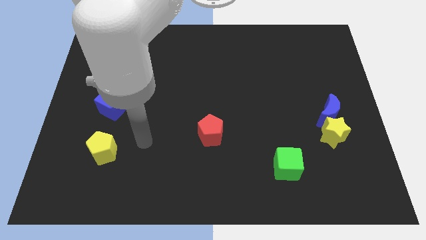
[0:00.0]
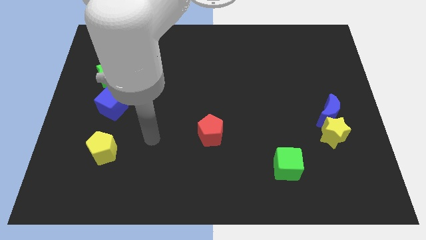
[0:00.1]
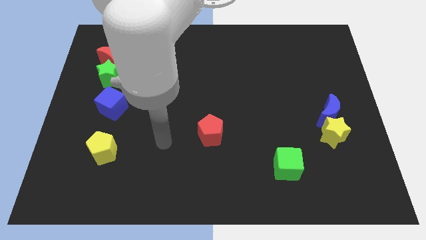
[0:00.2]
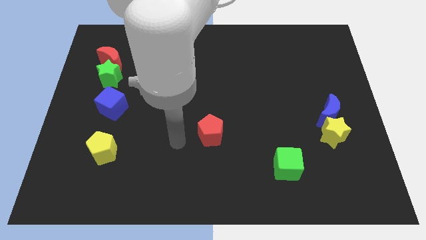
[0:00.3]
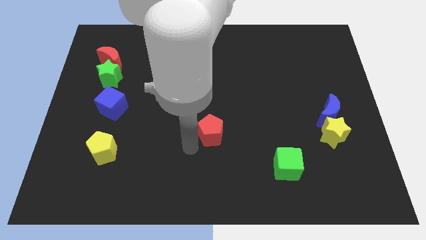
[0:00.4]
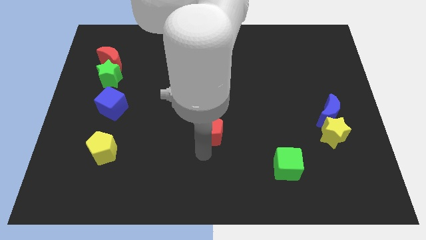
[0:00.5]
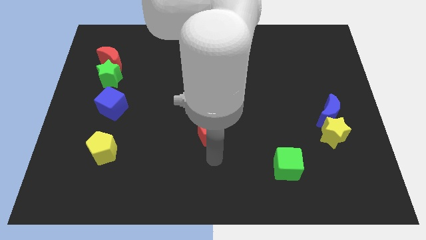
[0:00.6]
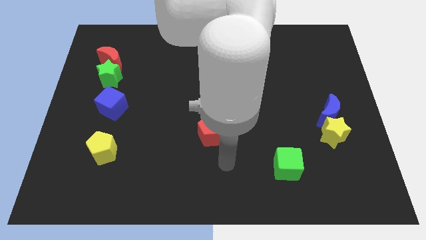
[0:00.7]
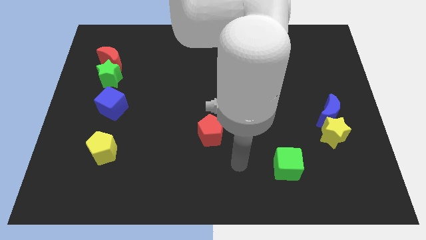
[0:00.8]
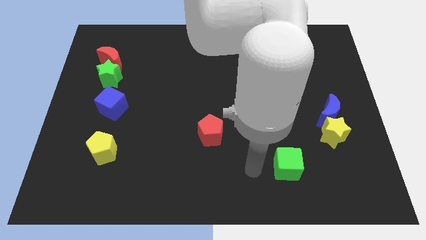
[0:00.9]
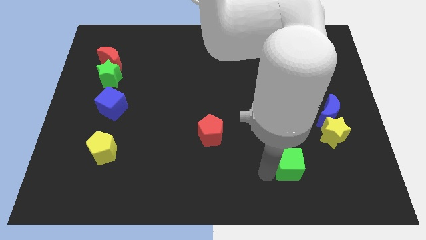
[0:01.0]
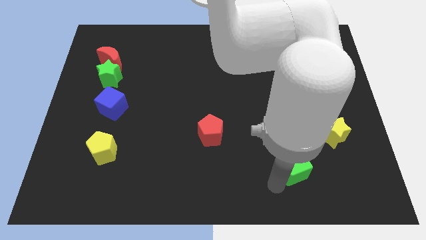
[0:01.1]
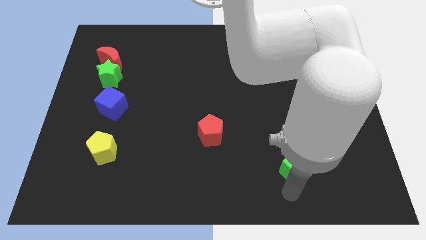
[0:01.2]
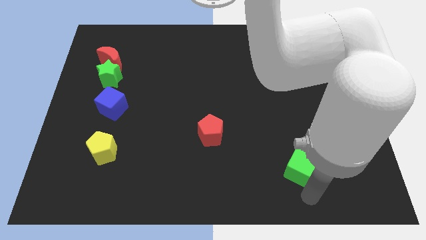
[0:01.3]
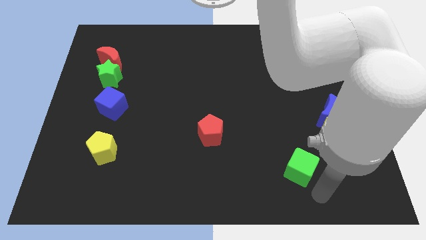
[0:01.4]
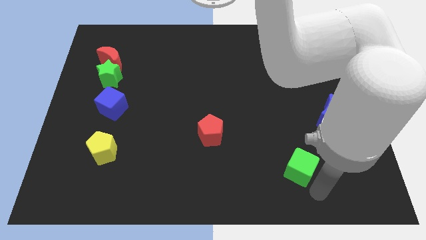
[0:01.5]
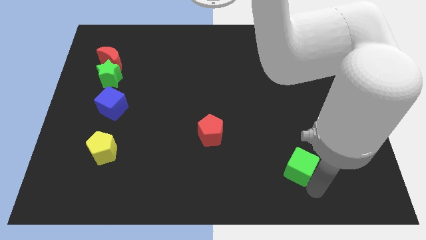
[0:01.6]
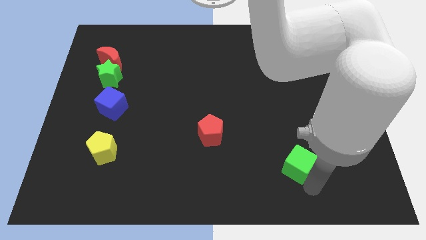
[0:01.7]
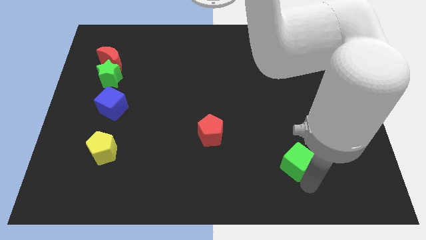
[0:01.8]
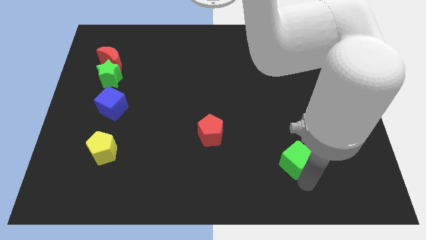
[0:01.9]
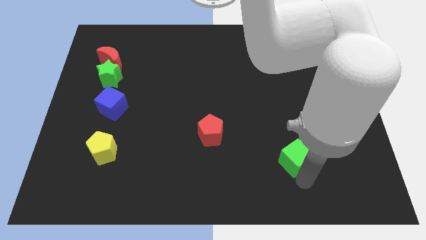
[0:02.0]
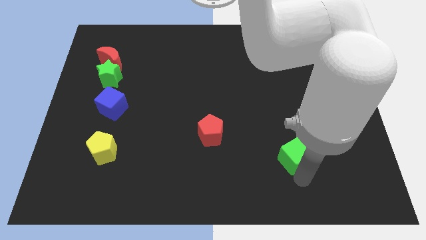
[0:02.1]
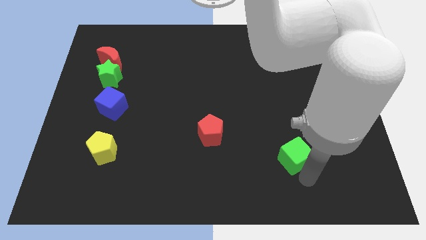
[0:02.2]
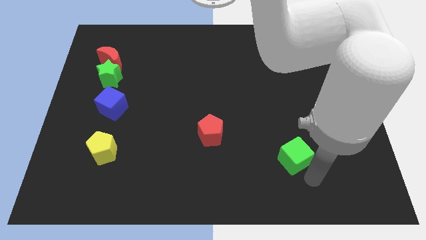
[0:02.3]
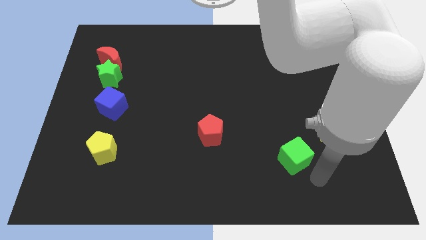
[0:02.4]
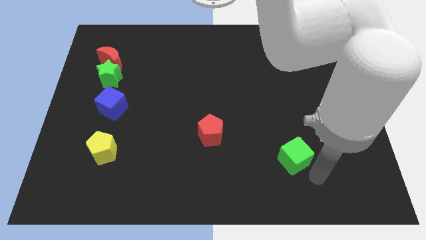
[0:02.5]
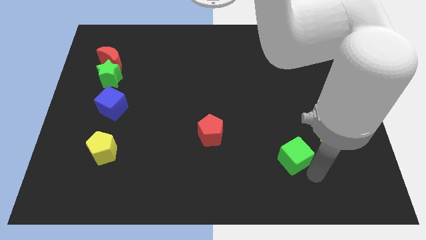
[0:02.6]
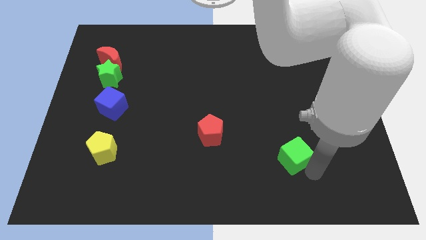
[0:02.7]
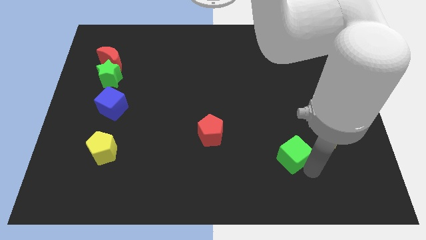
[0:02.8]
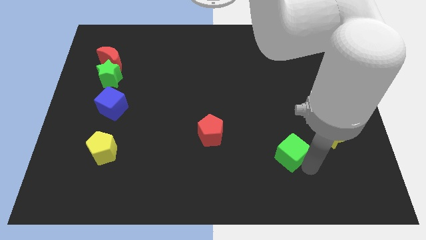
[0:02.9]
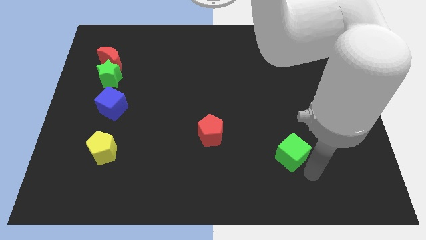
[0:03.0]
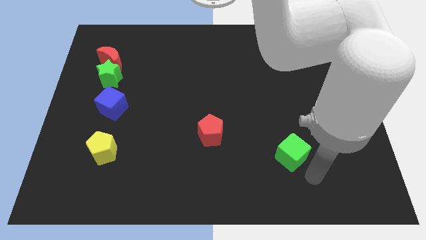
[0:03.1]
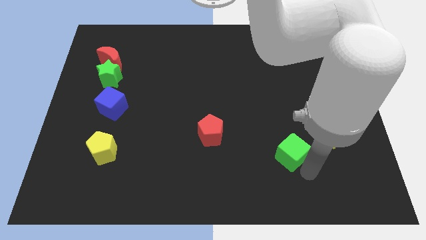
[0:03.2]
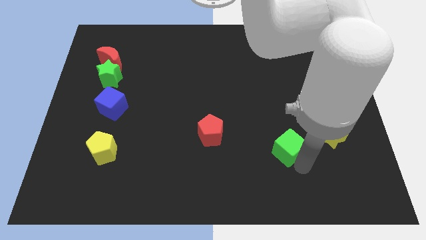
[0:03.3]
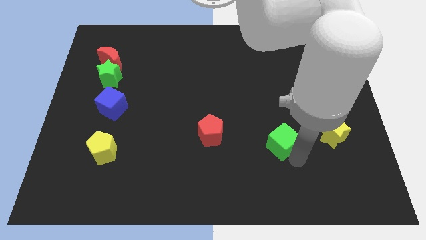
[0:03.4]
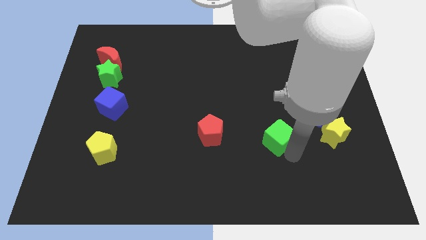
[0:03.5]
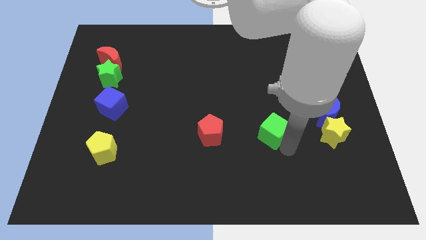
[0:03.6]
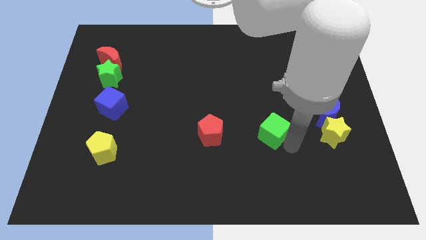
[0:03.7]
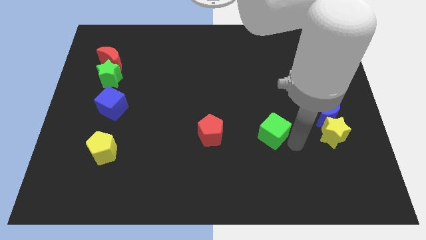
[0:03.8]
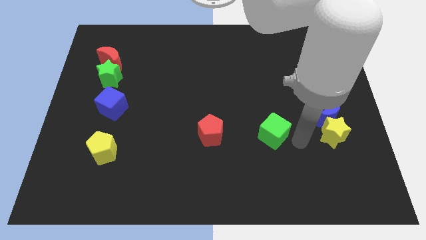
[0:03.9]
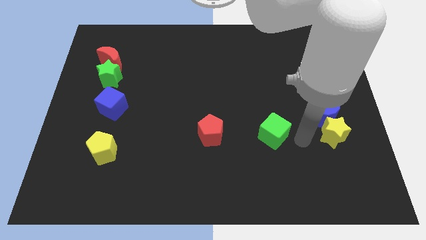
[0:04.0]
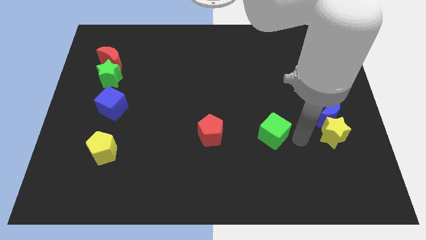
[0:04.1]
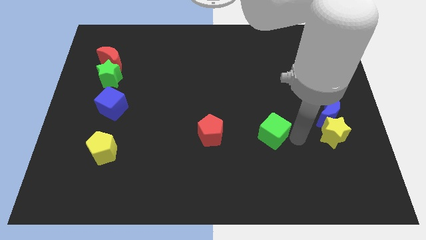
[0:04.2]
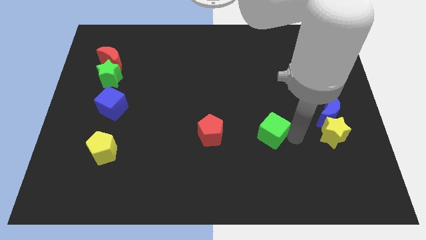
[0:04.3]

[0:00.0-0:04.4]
move the green cube slightly up and left

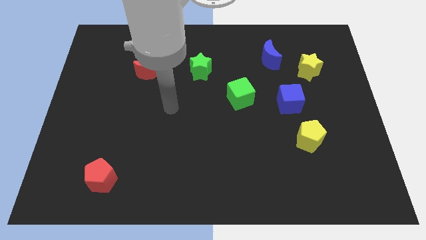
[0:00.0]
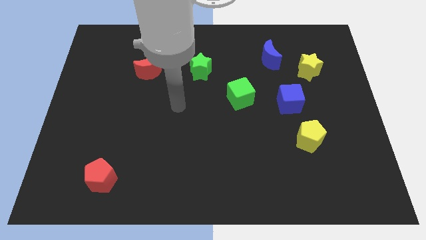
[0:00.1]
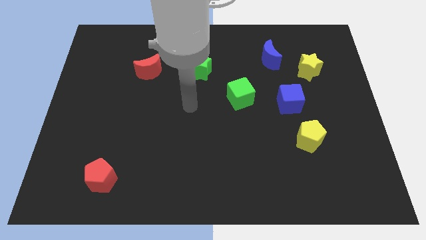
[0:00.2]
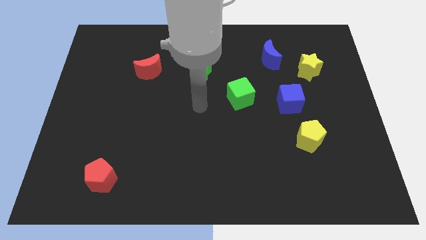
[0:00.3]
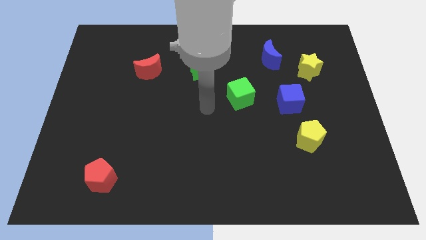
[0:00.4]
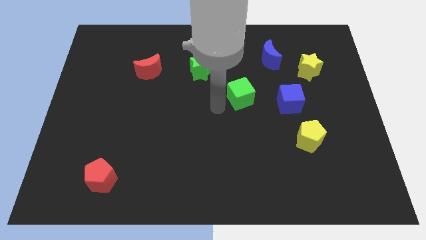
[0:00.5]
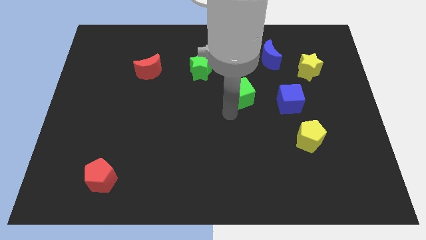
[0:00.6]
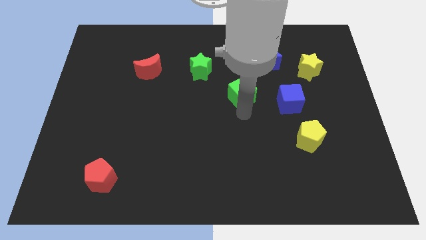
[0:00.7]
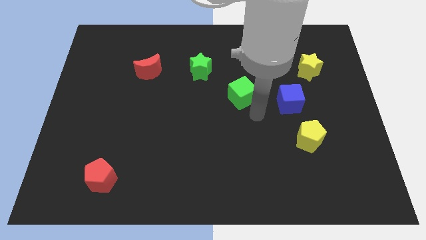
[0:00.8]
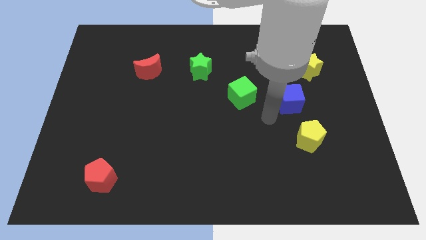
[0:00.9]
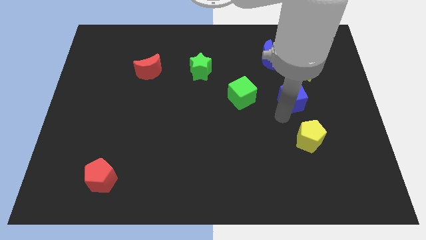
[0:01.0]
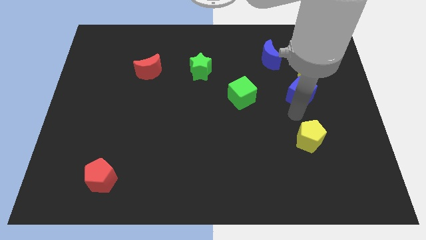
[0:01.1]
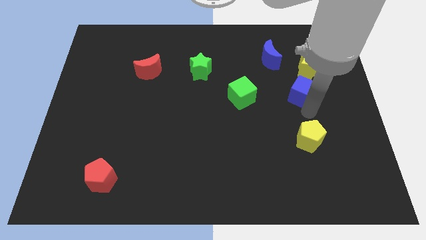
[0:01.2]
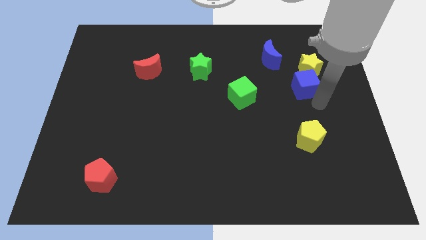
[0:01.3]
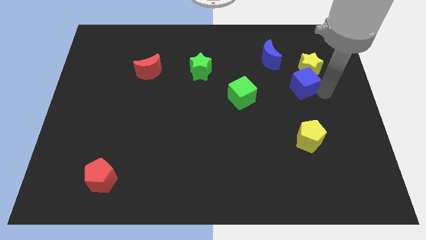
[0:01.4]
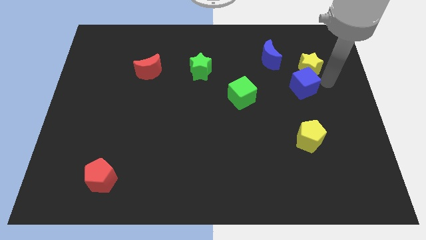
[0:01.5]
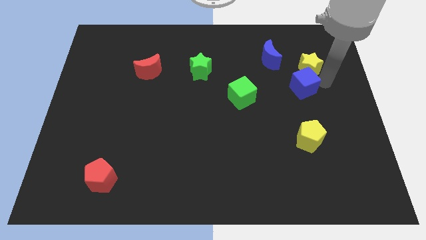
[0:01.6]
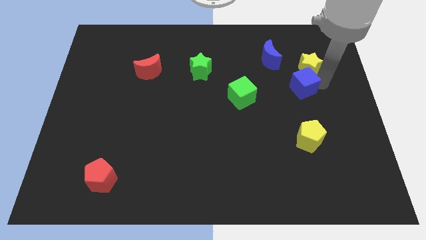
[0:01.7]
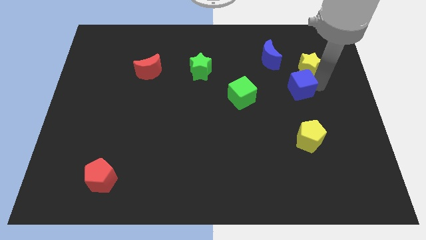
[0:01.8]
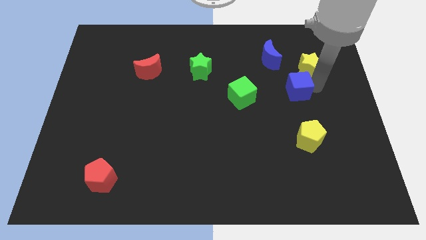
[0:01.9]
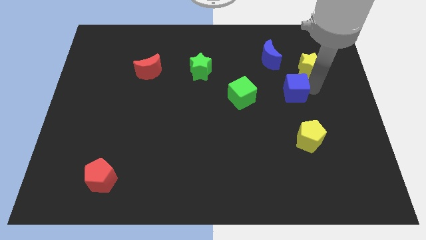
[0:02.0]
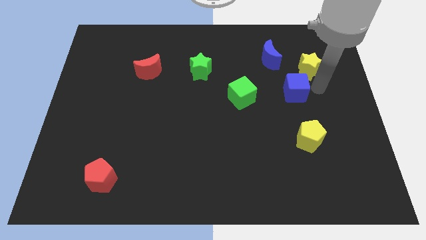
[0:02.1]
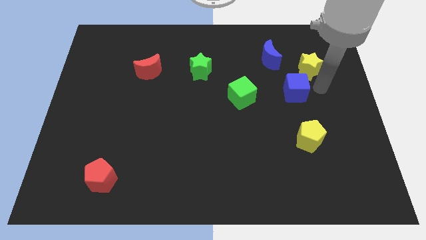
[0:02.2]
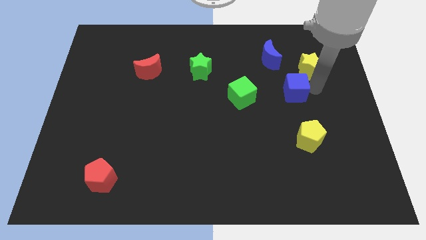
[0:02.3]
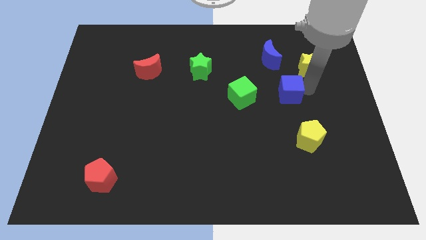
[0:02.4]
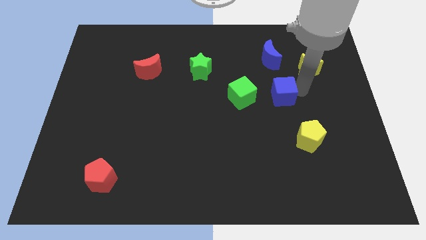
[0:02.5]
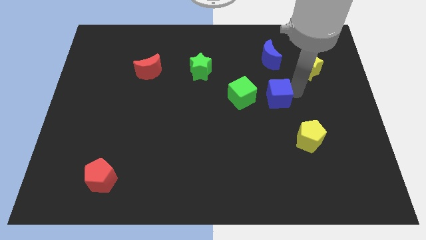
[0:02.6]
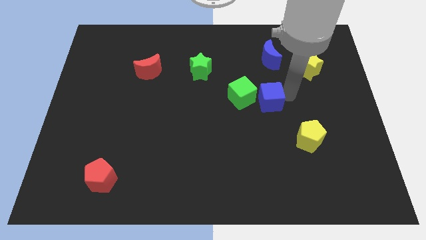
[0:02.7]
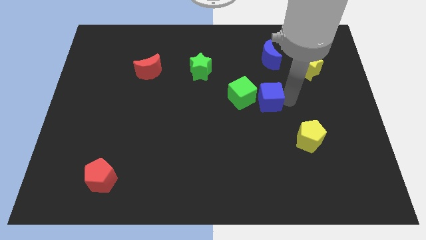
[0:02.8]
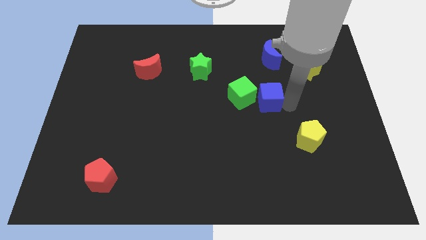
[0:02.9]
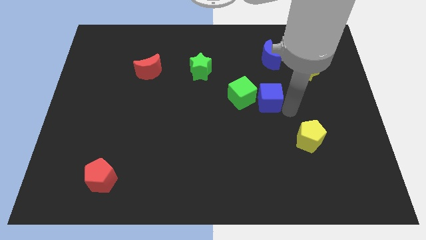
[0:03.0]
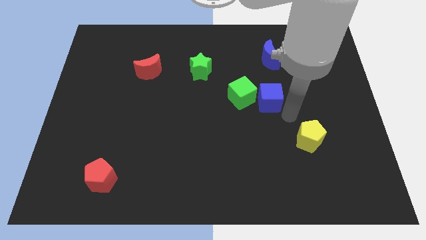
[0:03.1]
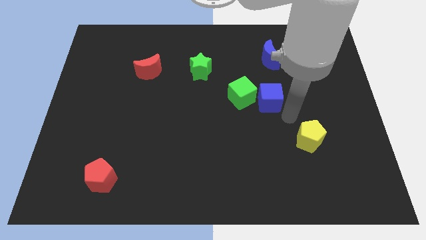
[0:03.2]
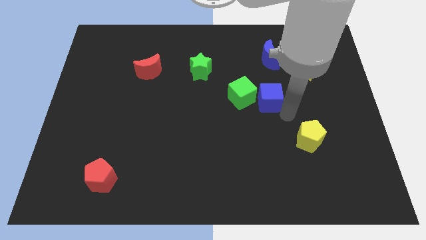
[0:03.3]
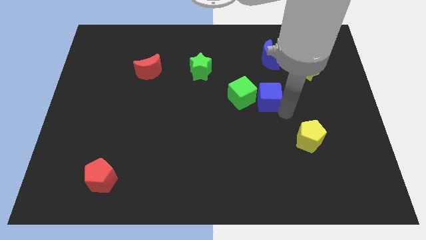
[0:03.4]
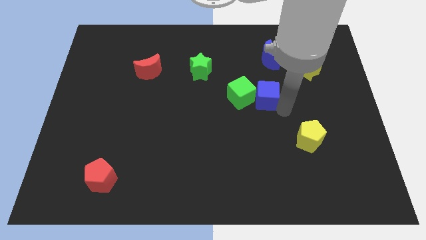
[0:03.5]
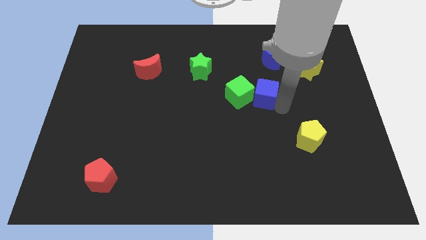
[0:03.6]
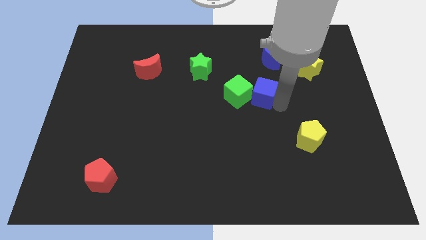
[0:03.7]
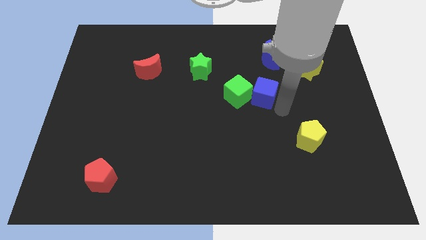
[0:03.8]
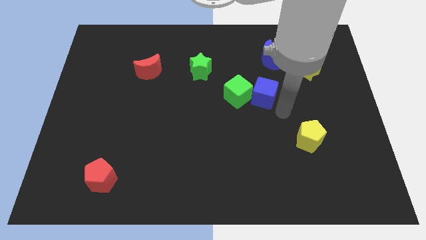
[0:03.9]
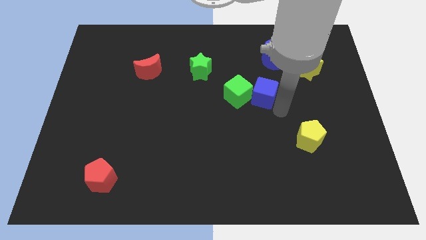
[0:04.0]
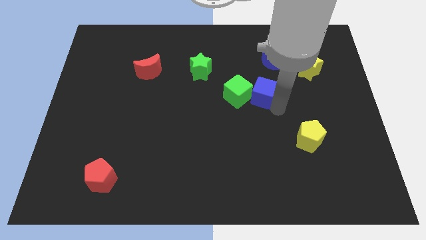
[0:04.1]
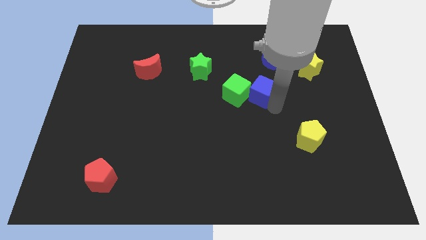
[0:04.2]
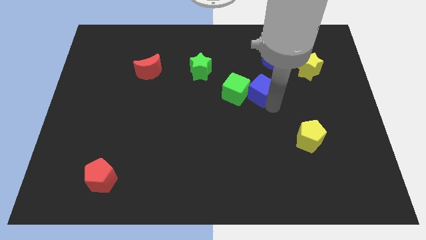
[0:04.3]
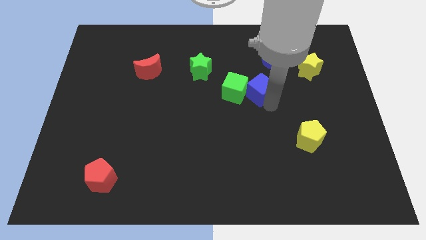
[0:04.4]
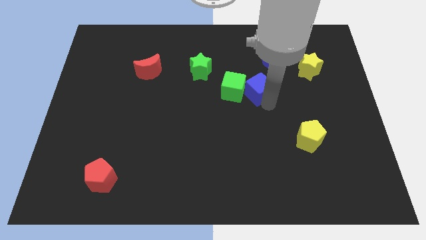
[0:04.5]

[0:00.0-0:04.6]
push the blue cube up and left diagonally a bit
